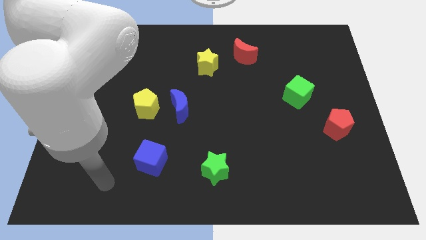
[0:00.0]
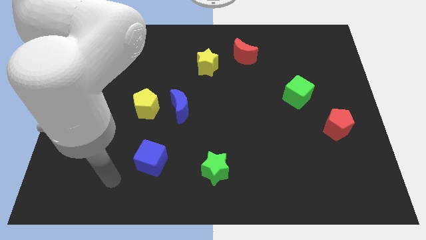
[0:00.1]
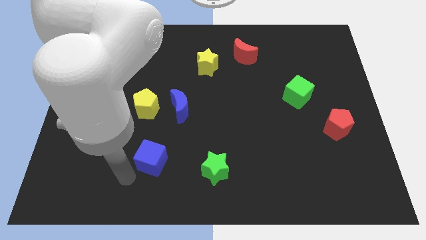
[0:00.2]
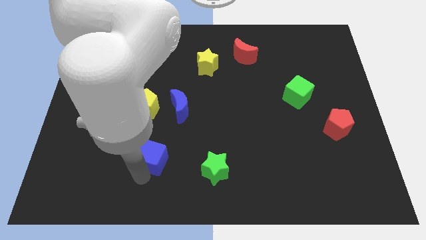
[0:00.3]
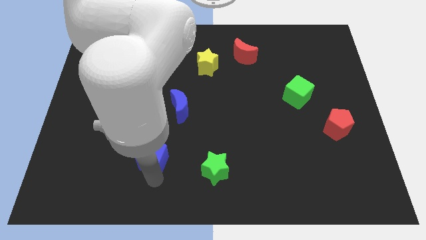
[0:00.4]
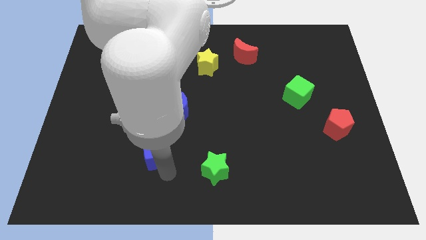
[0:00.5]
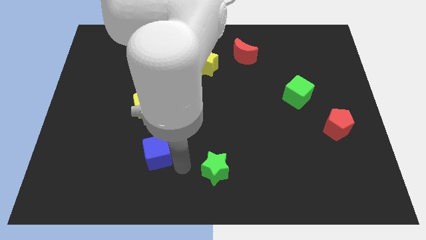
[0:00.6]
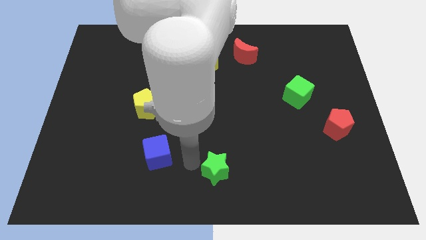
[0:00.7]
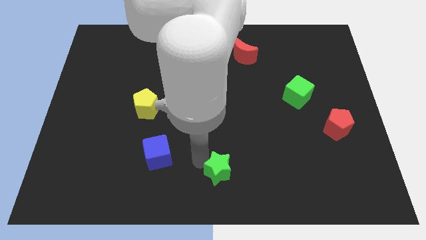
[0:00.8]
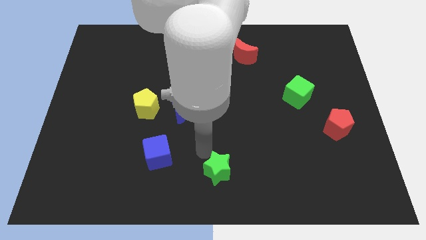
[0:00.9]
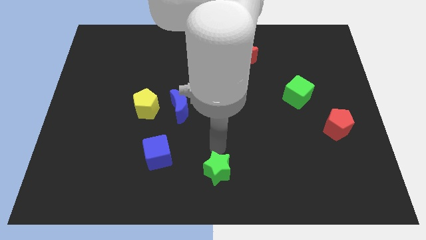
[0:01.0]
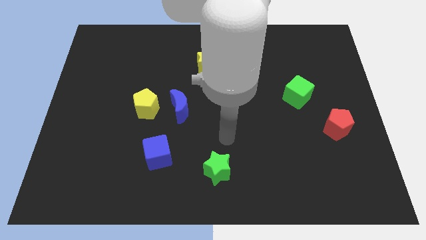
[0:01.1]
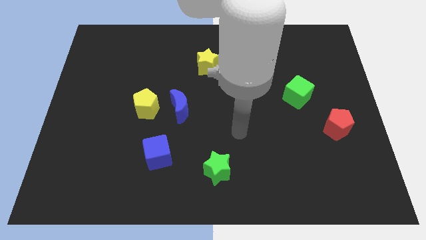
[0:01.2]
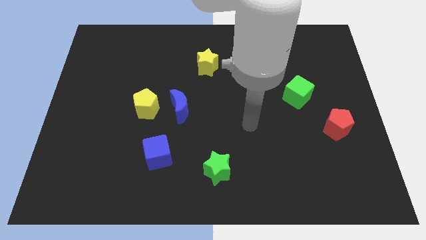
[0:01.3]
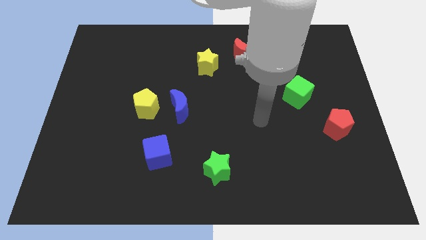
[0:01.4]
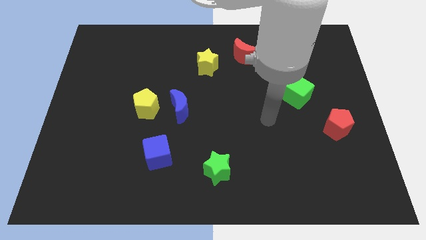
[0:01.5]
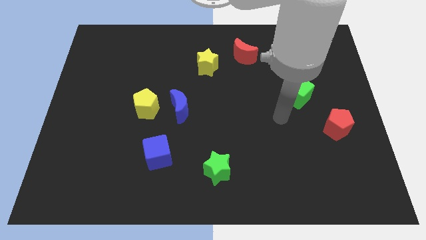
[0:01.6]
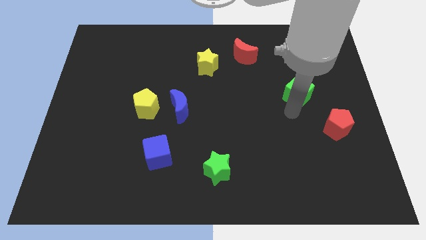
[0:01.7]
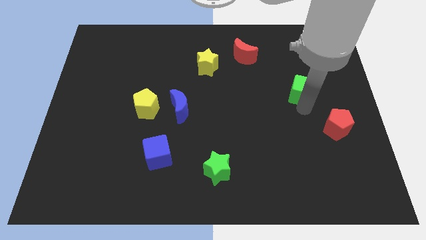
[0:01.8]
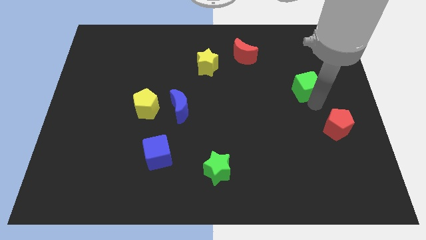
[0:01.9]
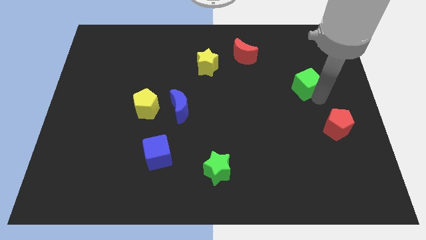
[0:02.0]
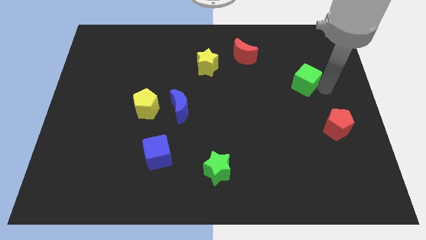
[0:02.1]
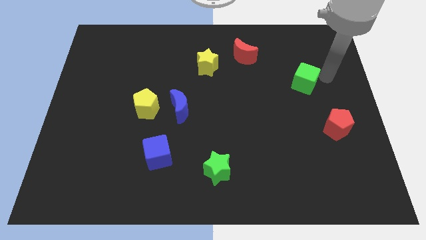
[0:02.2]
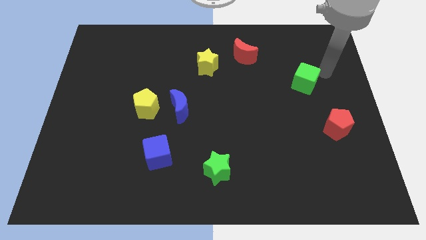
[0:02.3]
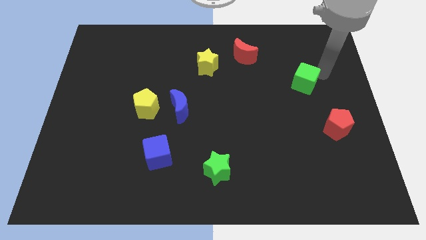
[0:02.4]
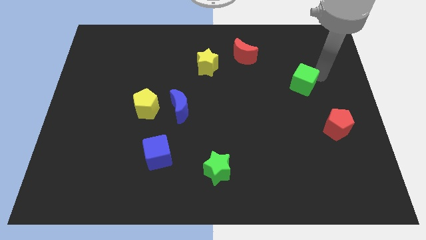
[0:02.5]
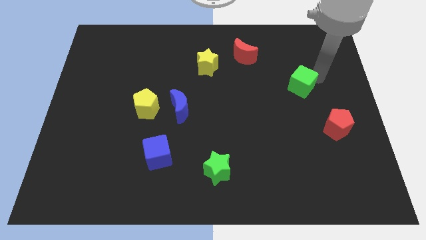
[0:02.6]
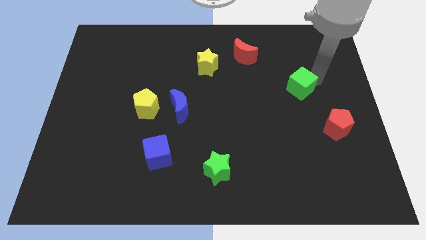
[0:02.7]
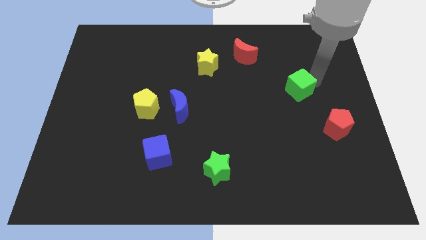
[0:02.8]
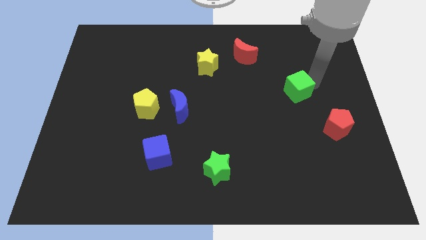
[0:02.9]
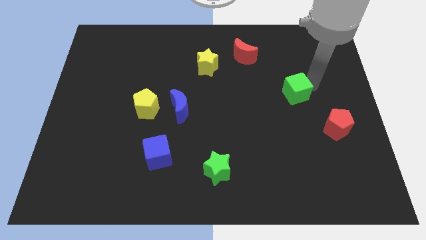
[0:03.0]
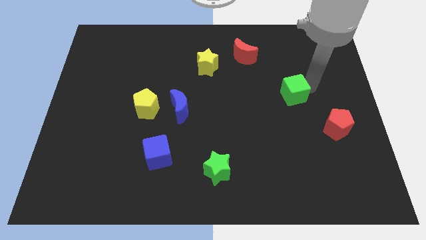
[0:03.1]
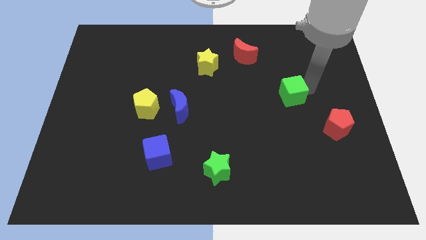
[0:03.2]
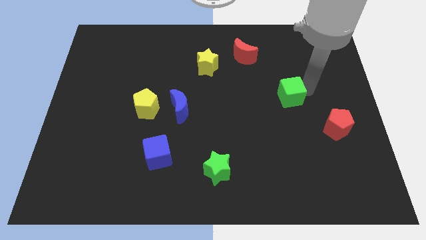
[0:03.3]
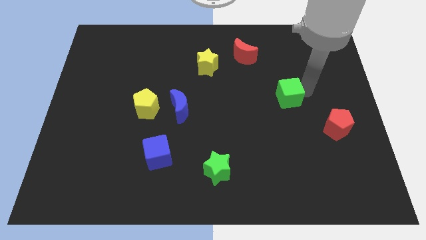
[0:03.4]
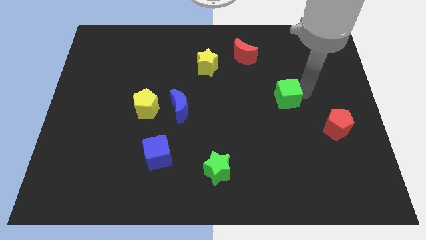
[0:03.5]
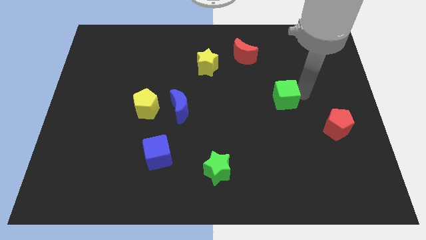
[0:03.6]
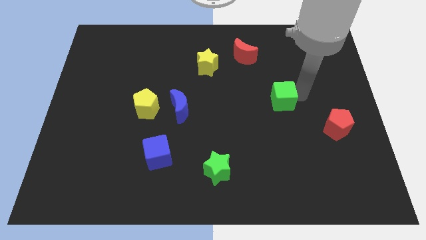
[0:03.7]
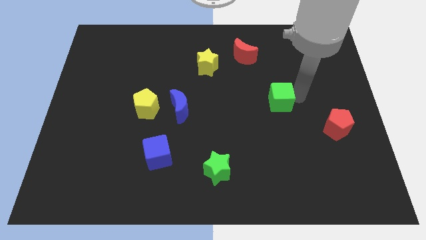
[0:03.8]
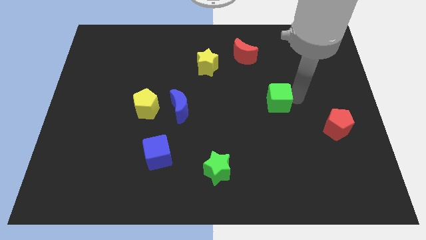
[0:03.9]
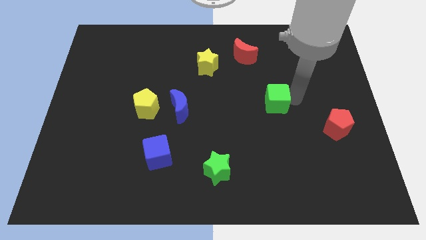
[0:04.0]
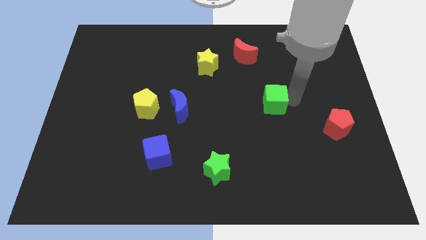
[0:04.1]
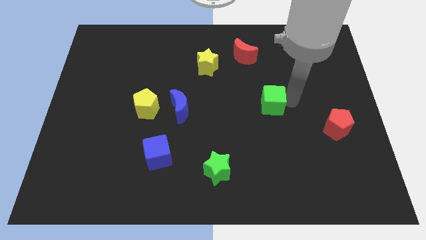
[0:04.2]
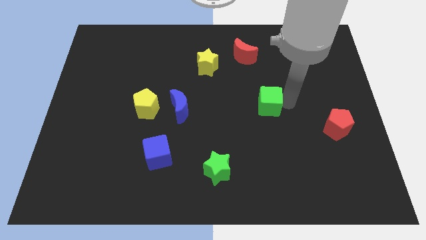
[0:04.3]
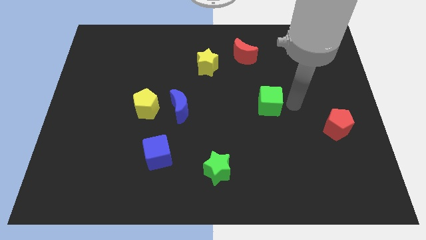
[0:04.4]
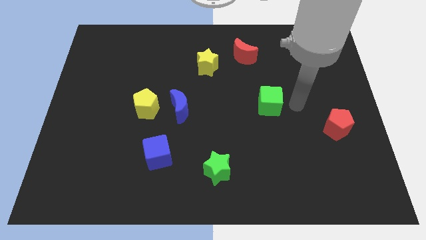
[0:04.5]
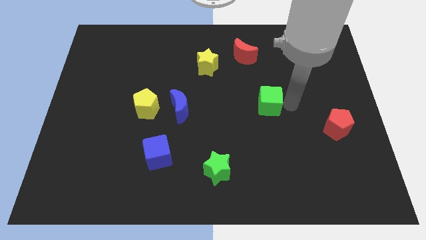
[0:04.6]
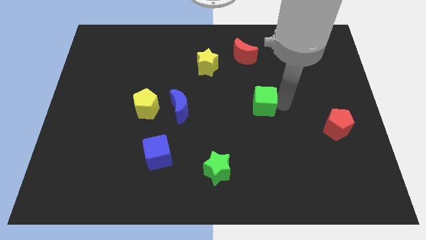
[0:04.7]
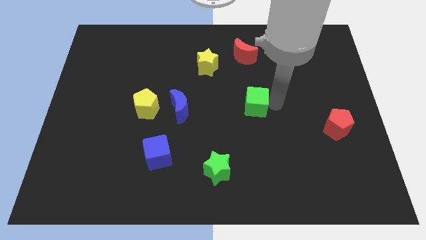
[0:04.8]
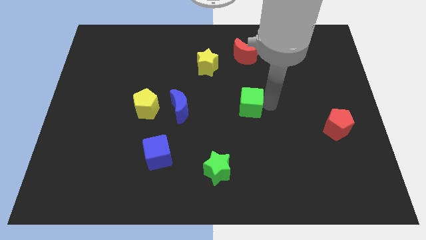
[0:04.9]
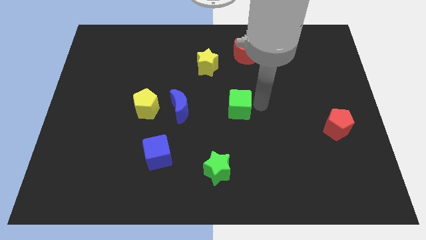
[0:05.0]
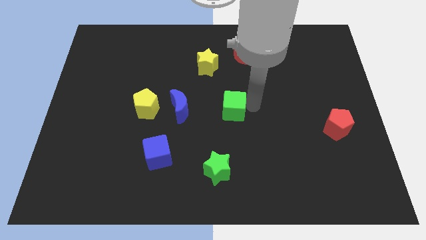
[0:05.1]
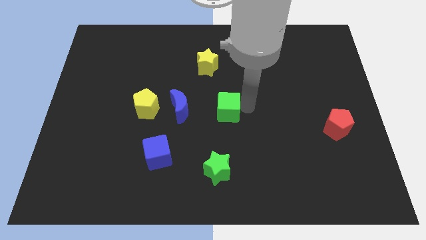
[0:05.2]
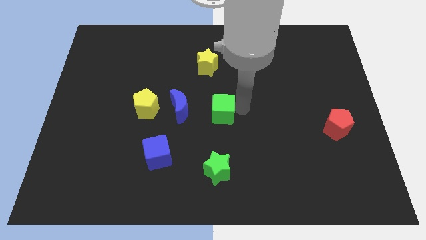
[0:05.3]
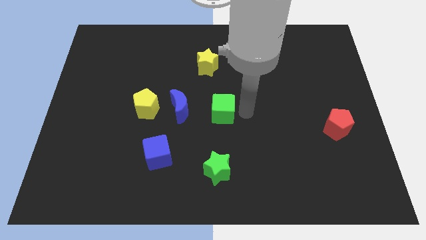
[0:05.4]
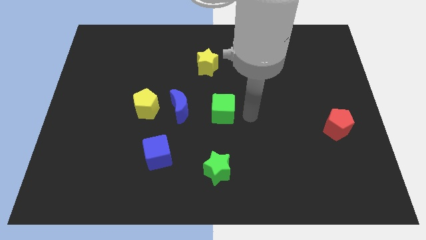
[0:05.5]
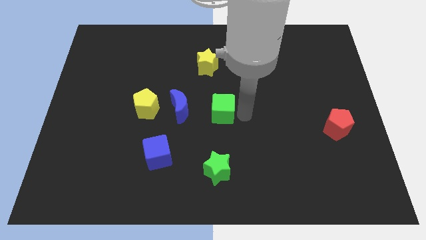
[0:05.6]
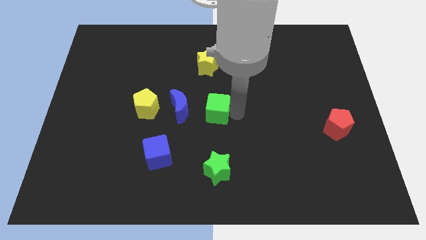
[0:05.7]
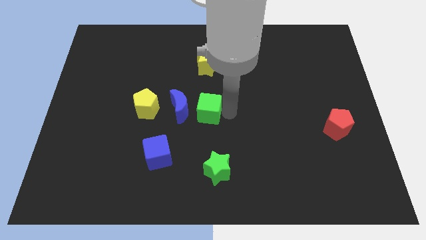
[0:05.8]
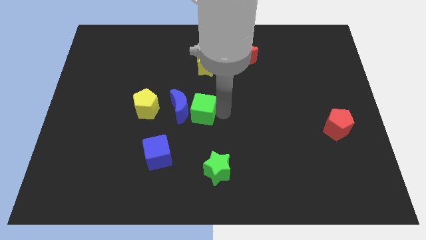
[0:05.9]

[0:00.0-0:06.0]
push the green cube to the blue moon

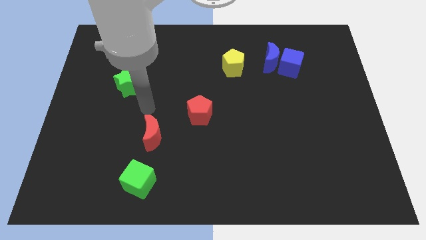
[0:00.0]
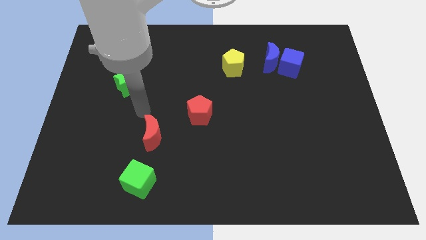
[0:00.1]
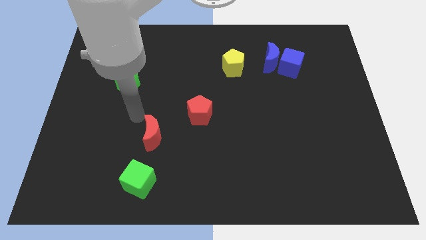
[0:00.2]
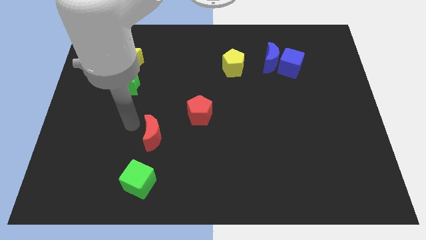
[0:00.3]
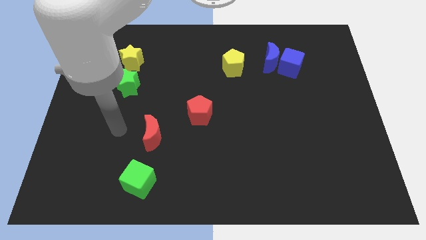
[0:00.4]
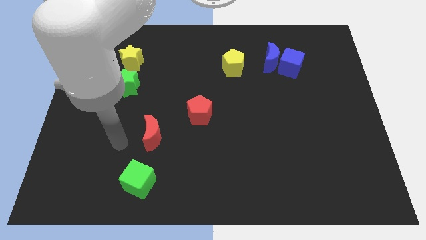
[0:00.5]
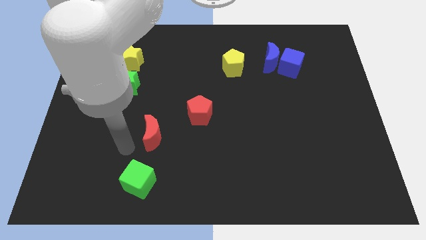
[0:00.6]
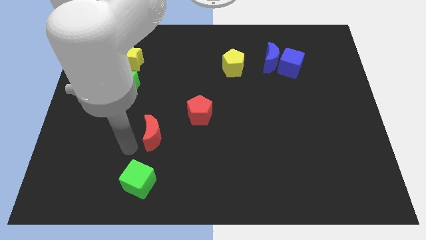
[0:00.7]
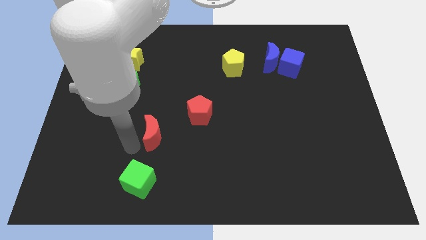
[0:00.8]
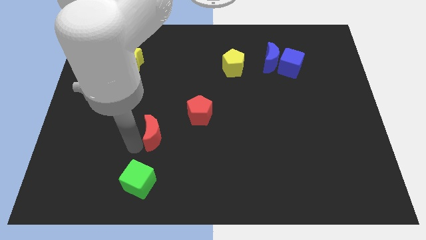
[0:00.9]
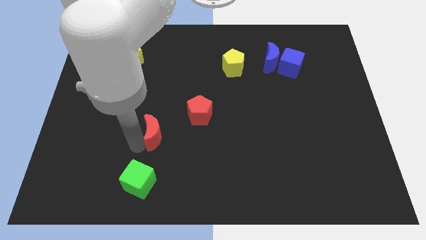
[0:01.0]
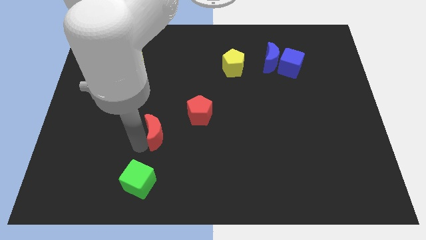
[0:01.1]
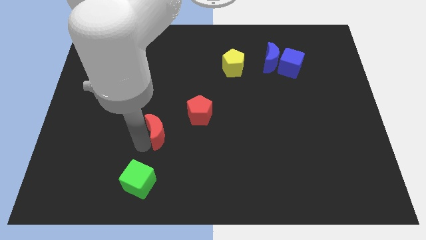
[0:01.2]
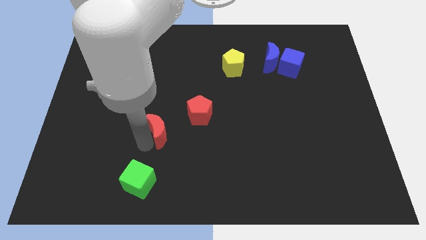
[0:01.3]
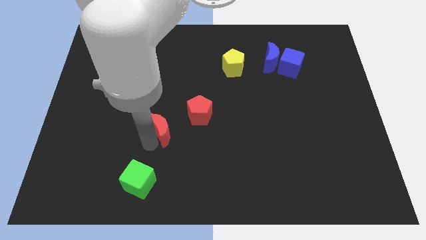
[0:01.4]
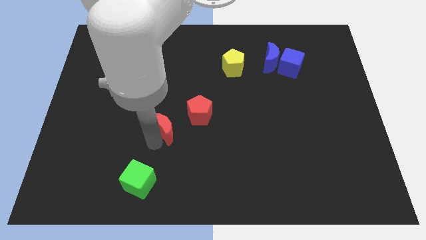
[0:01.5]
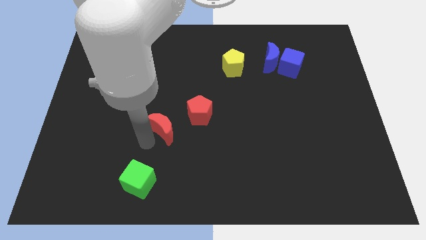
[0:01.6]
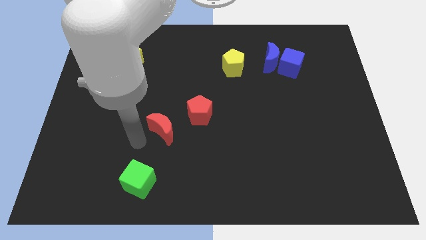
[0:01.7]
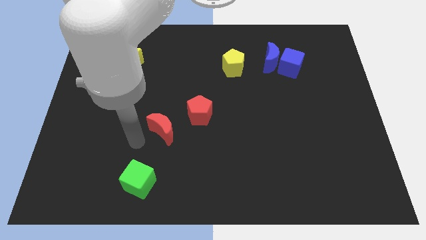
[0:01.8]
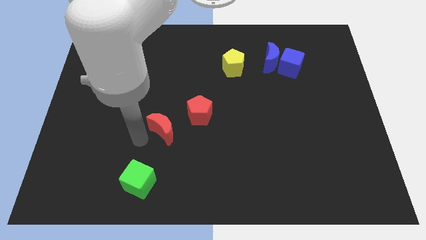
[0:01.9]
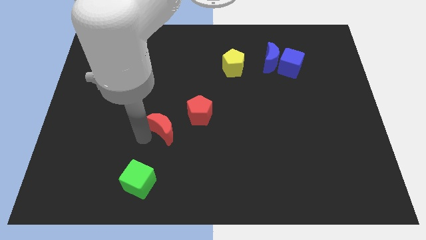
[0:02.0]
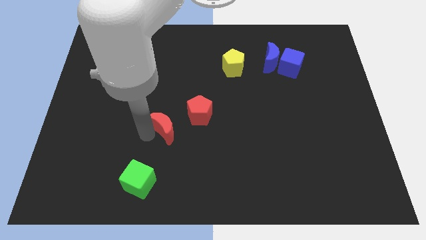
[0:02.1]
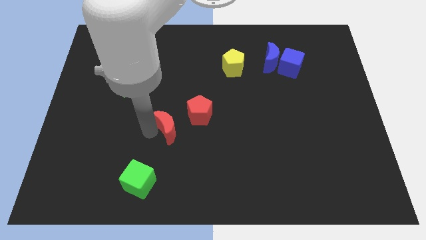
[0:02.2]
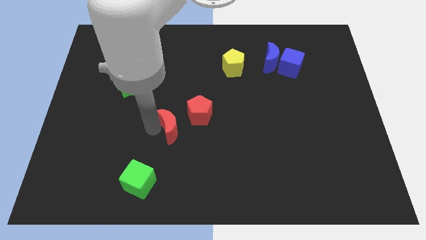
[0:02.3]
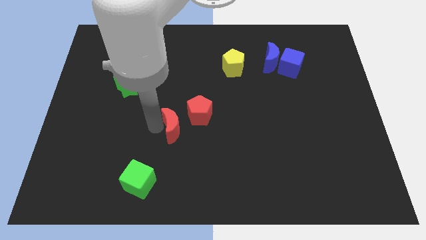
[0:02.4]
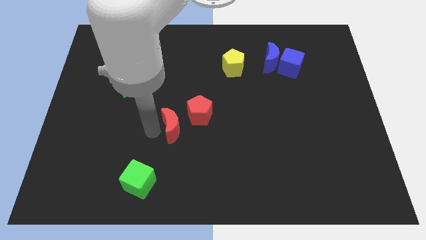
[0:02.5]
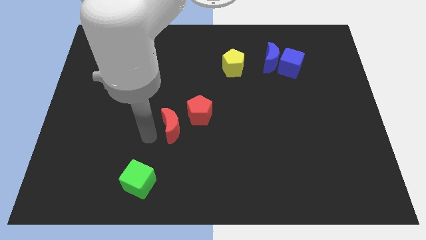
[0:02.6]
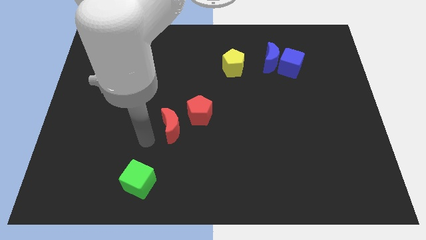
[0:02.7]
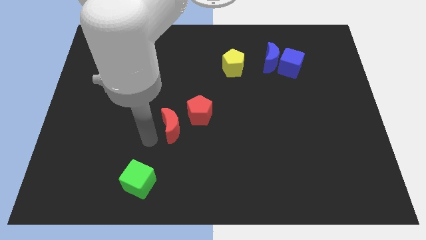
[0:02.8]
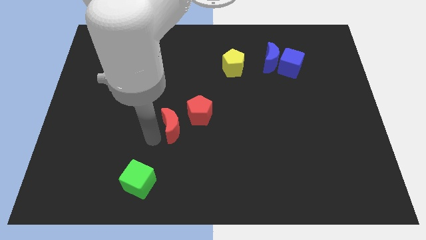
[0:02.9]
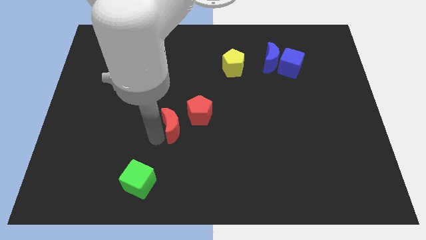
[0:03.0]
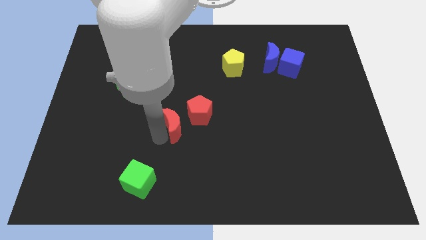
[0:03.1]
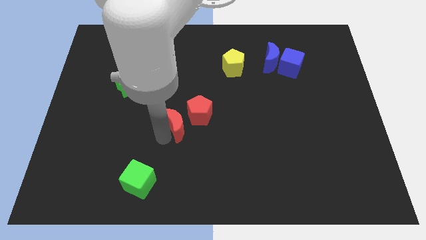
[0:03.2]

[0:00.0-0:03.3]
push the red moon close to the red pentagon
